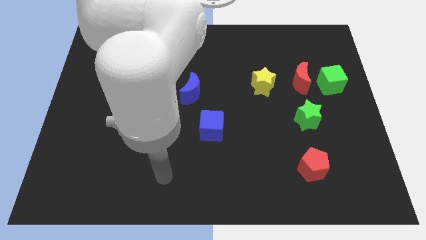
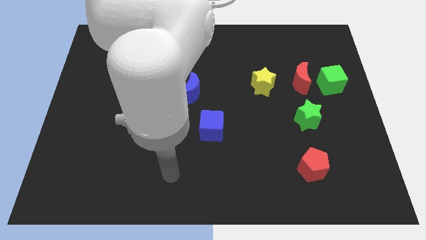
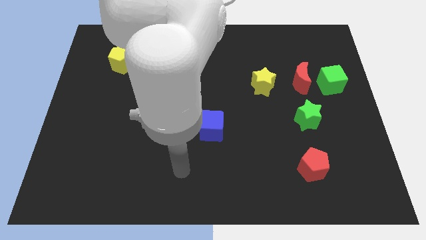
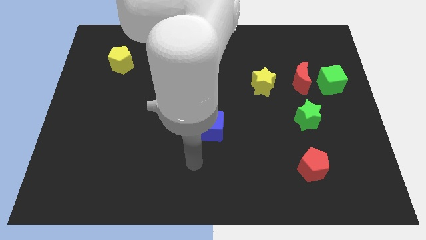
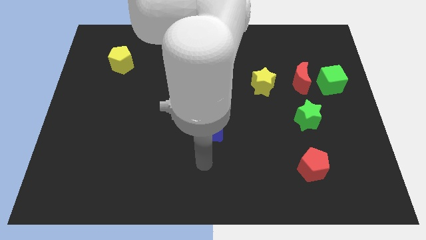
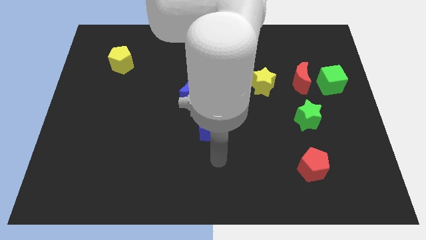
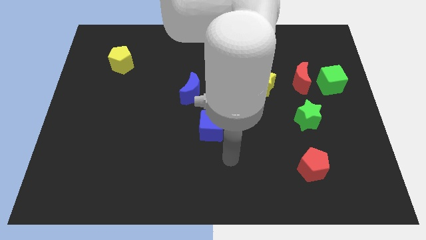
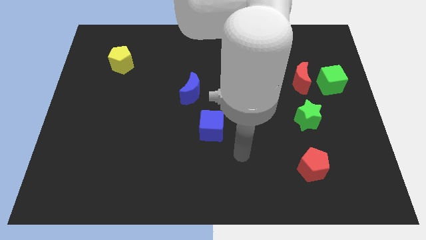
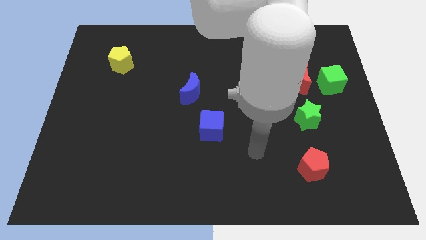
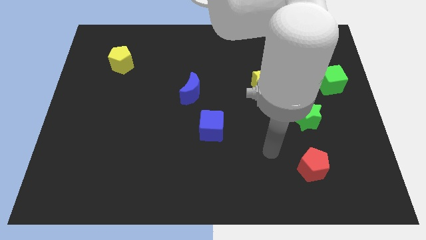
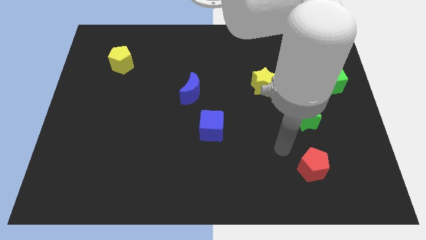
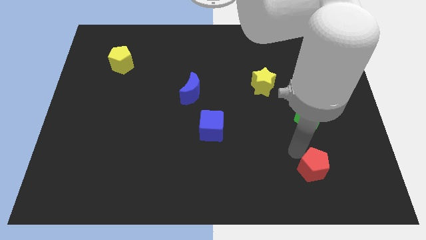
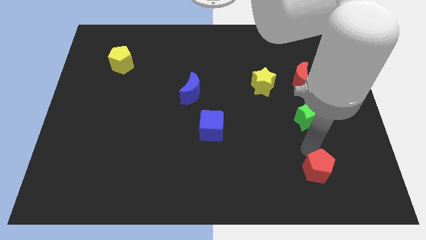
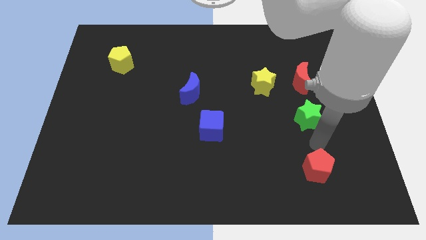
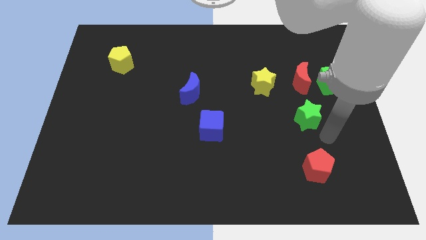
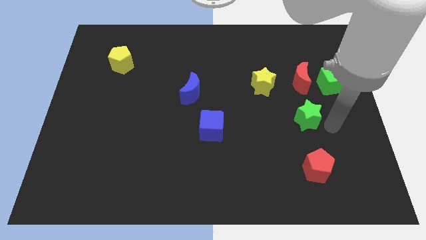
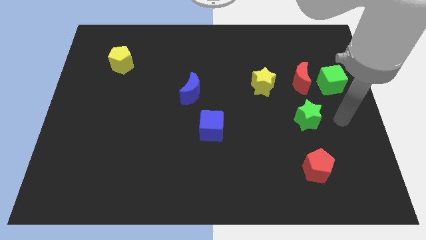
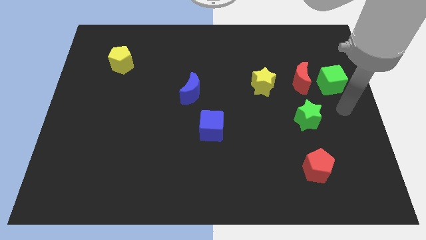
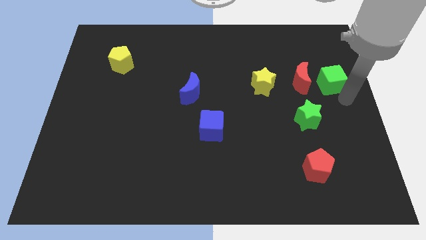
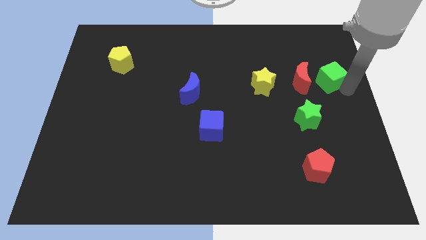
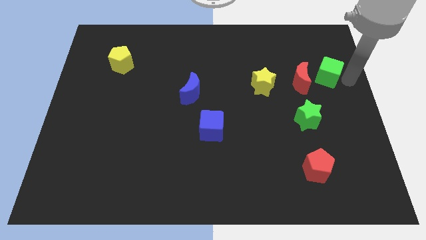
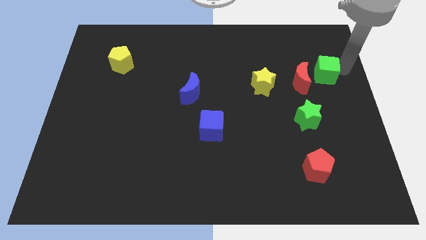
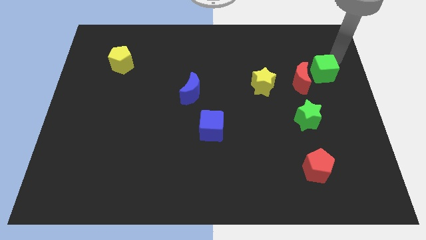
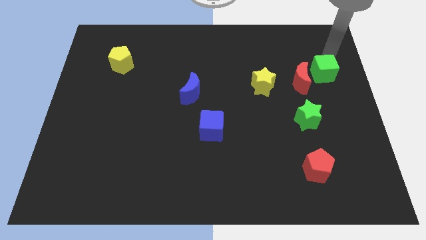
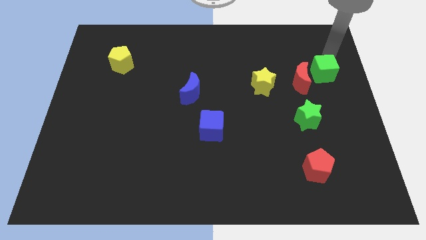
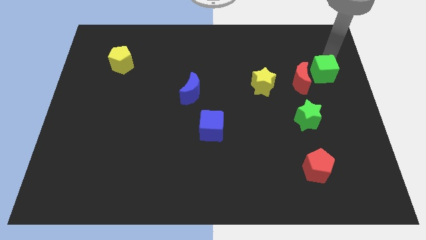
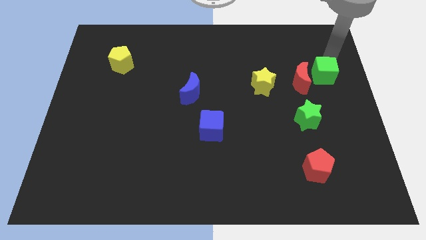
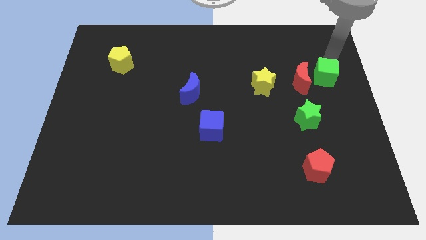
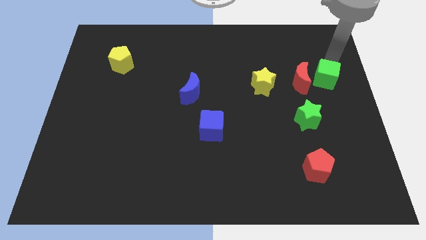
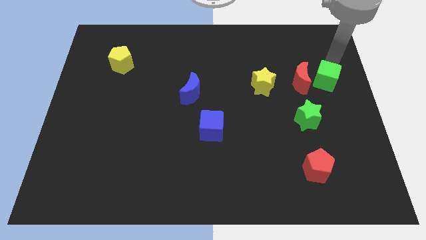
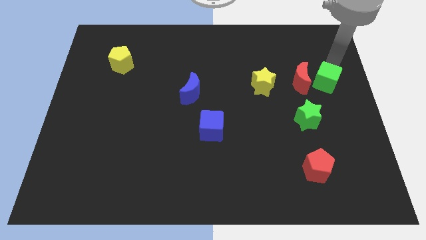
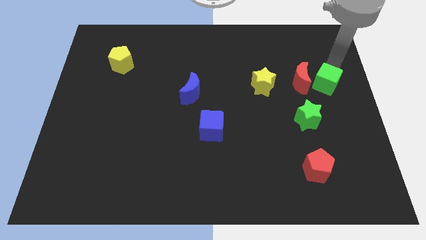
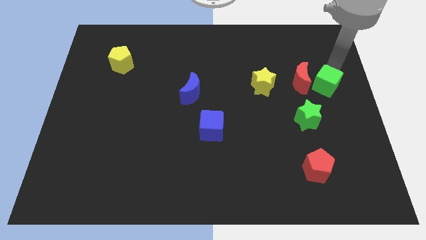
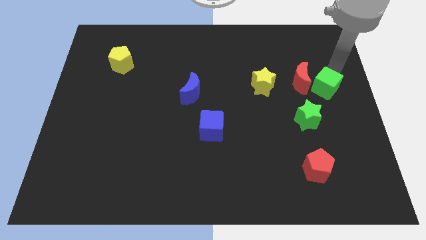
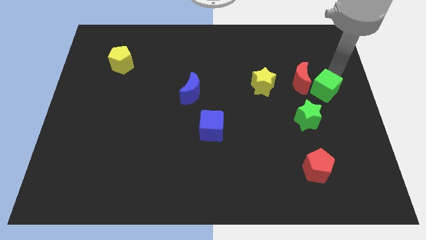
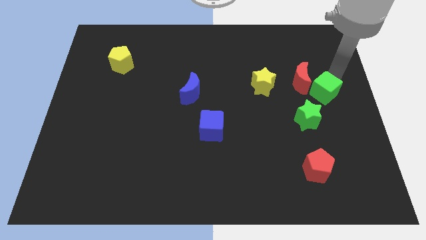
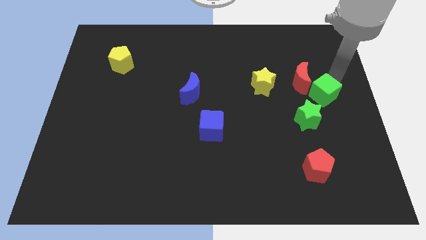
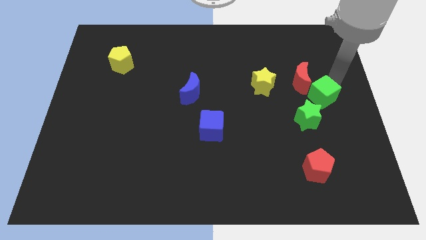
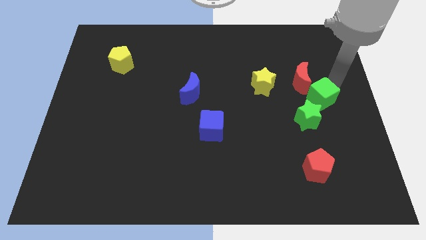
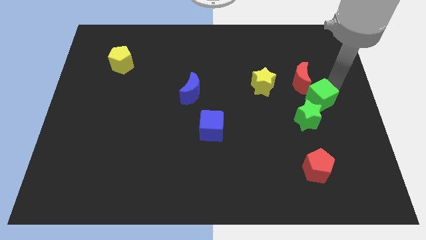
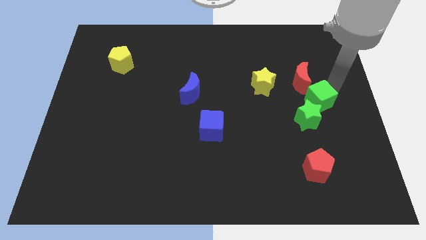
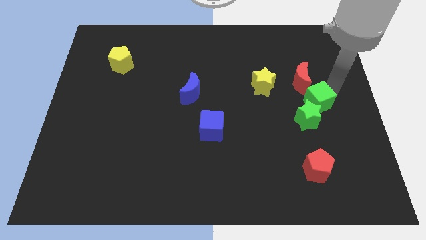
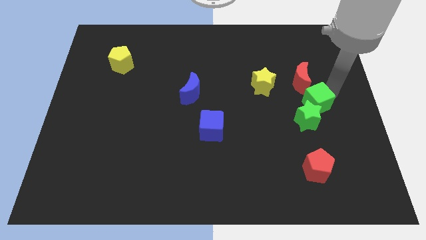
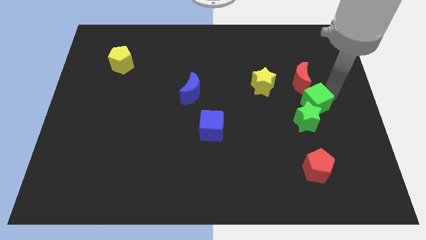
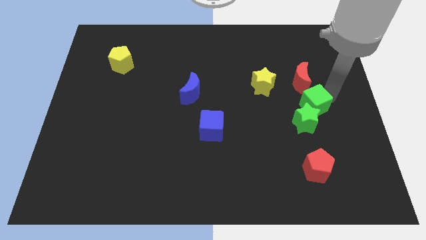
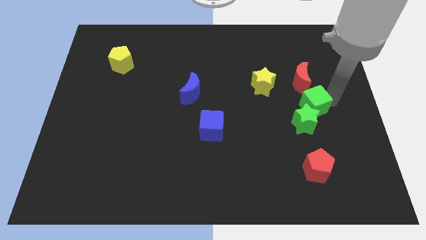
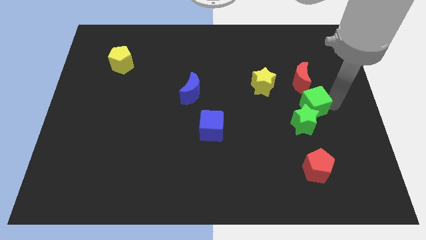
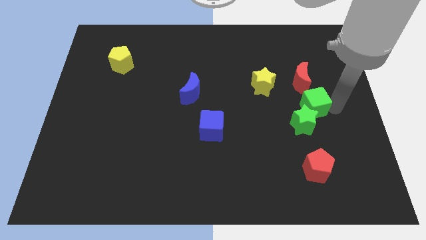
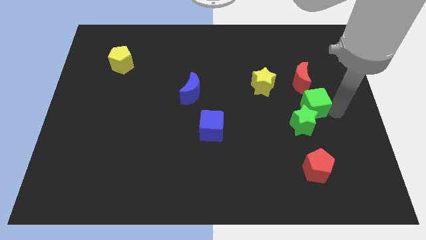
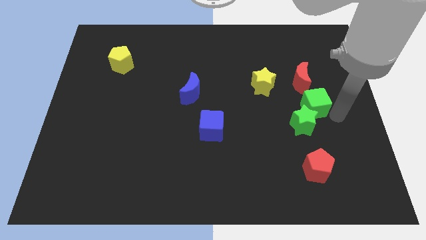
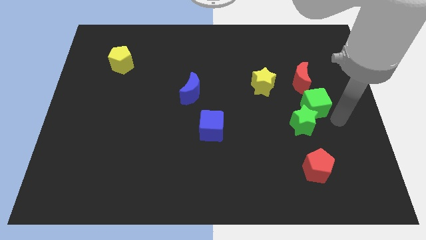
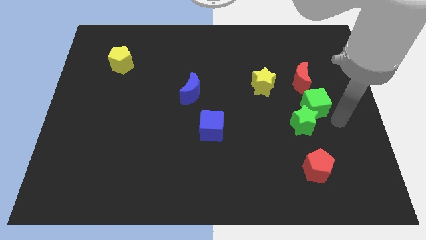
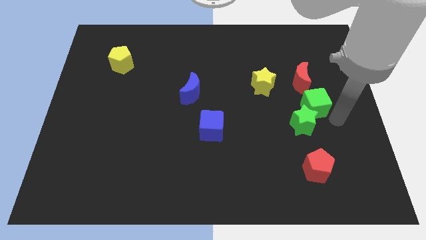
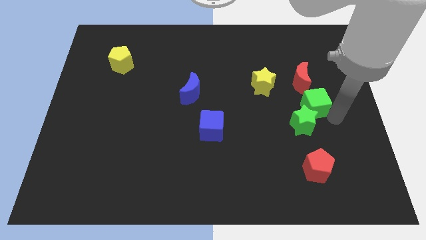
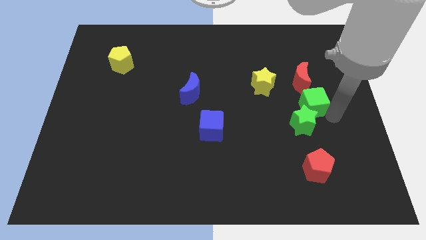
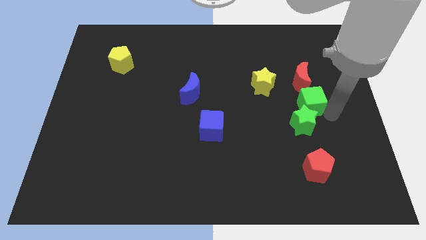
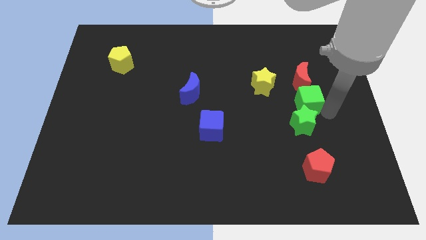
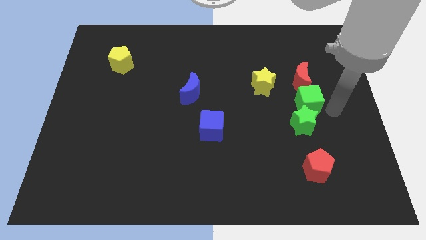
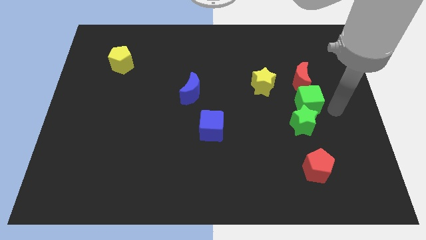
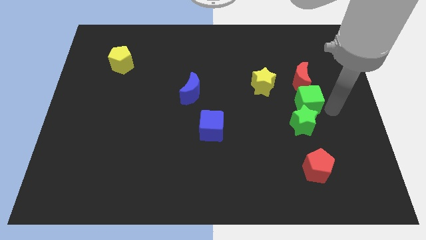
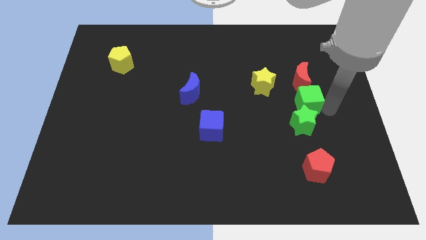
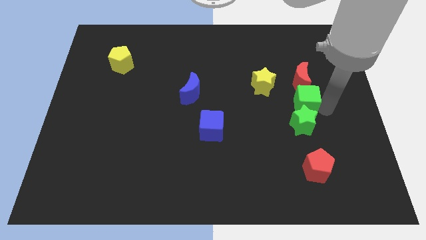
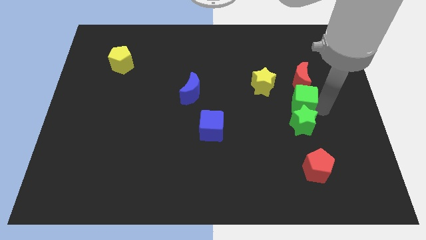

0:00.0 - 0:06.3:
slide the green cube diagonally down and to the left of the red moon

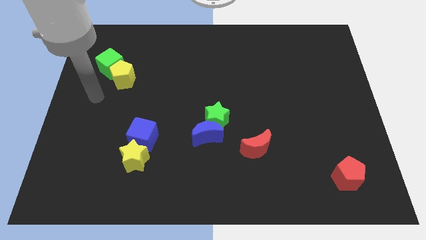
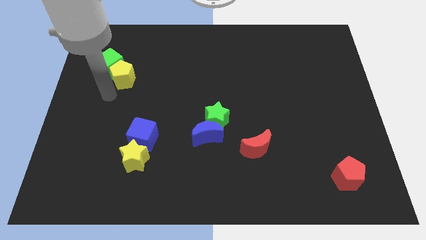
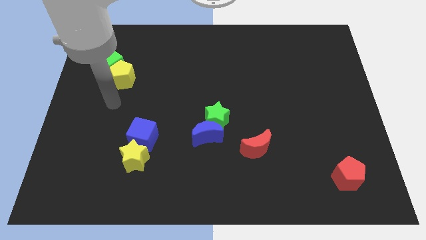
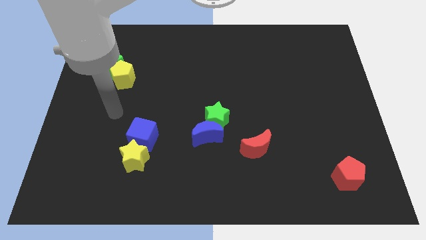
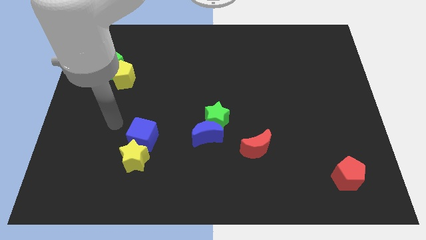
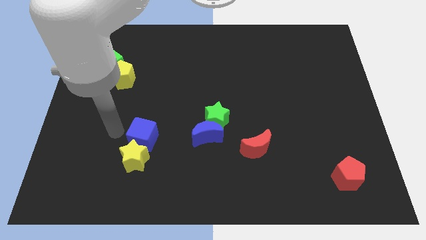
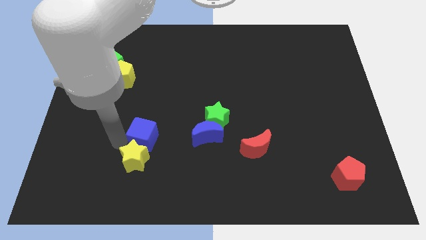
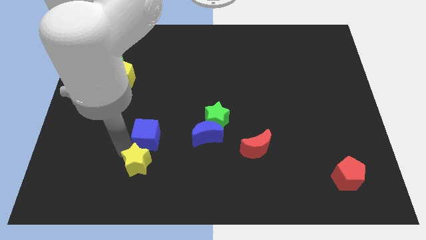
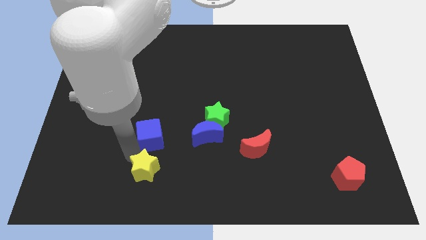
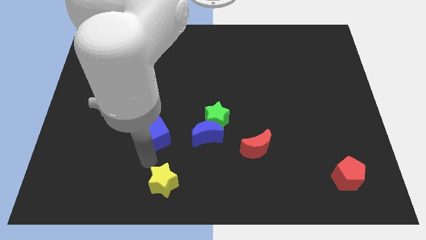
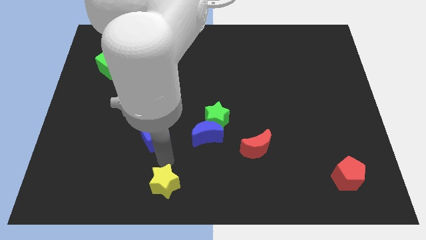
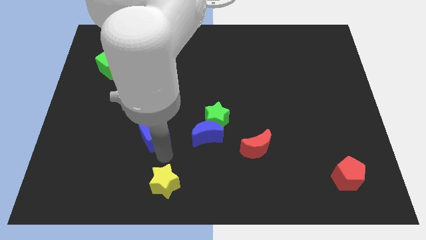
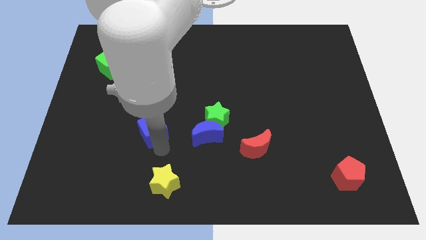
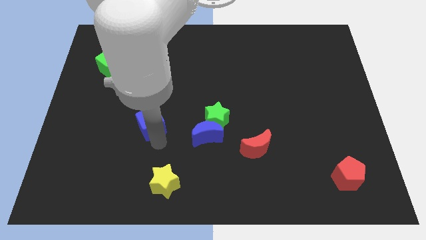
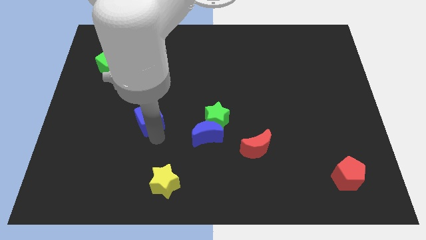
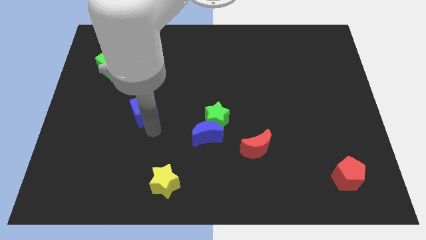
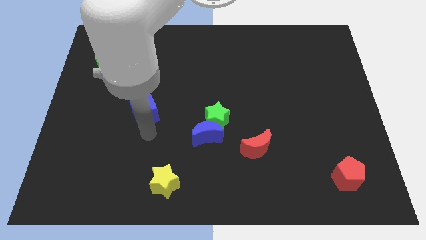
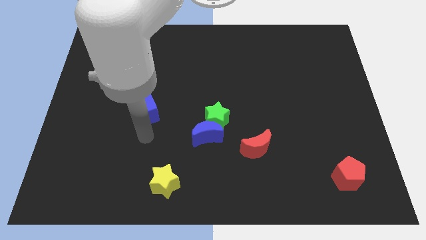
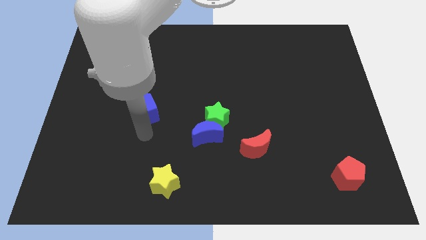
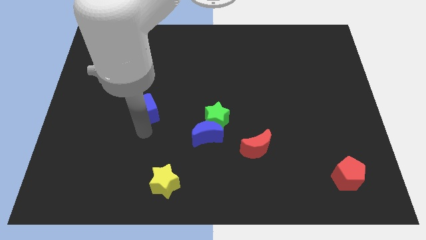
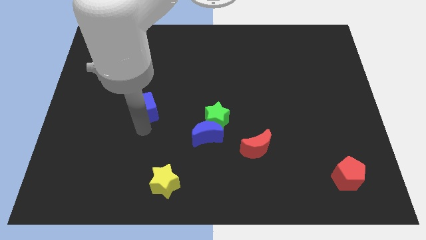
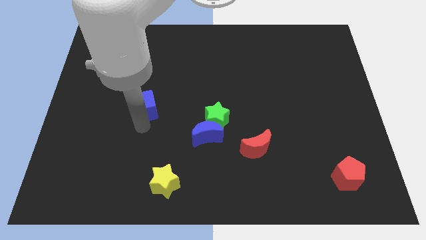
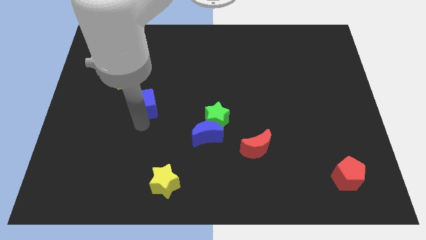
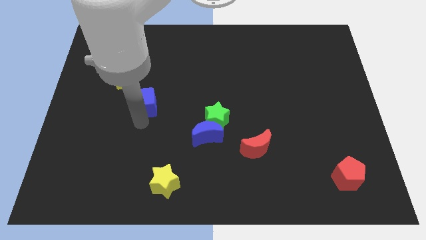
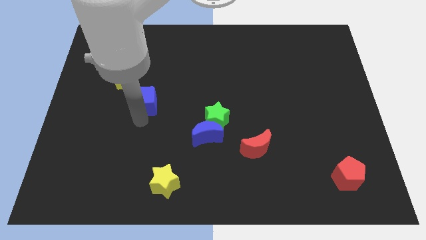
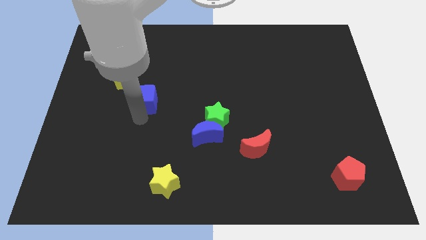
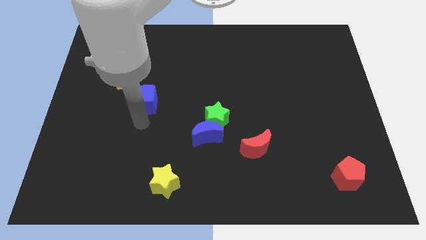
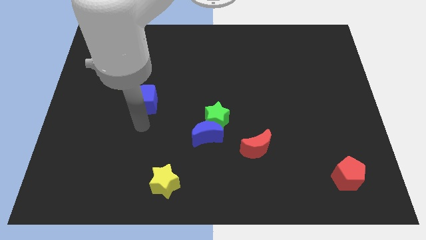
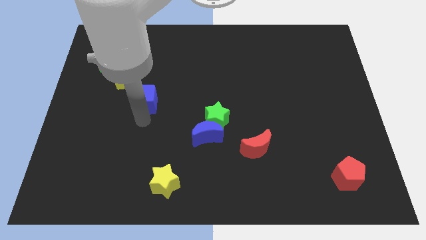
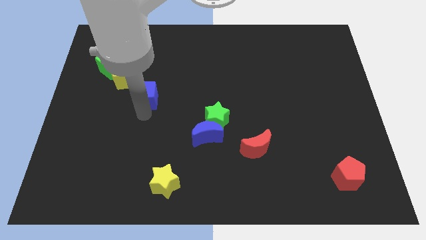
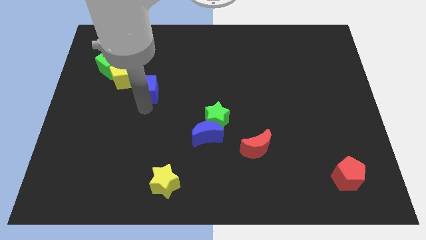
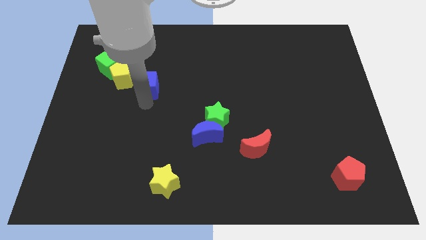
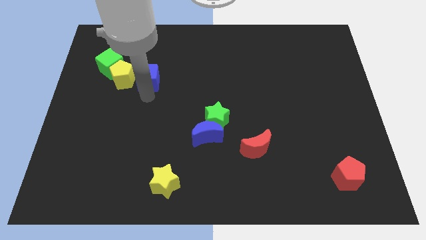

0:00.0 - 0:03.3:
put the blue cube diagonally up and to the right of the yellow pentagon
